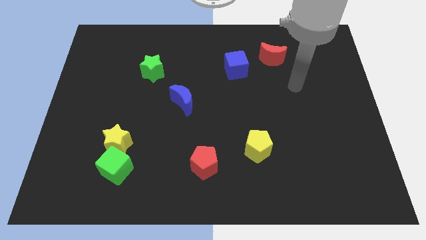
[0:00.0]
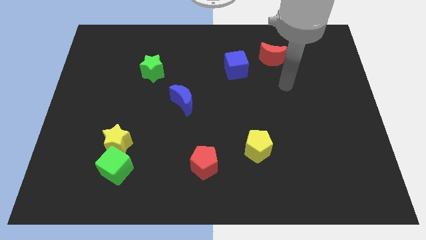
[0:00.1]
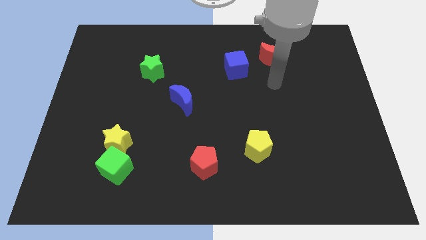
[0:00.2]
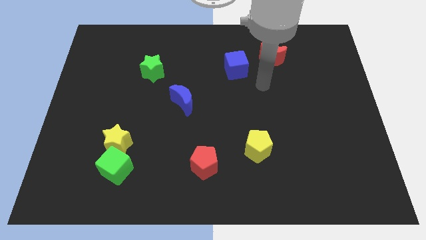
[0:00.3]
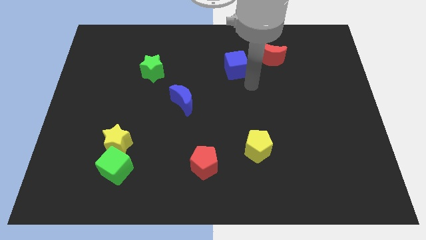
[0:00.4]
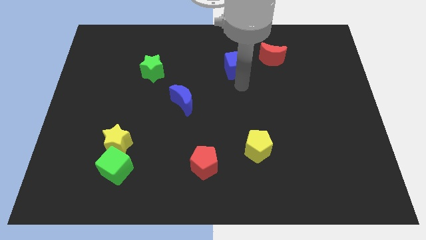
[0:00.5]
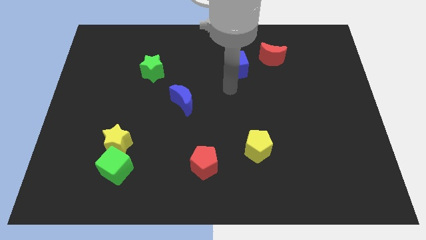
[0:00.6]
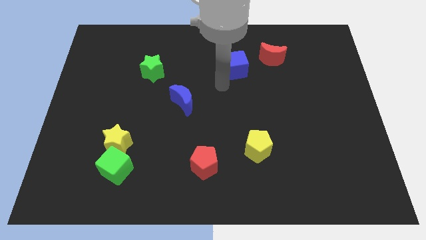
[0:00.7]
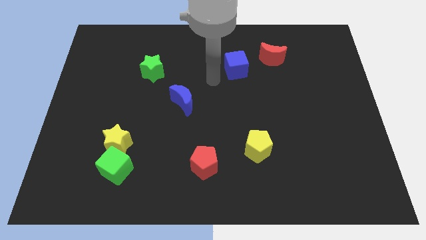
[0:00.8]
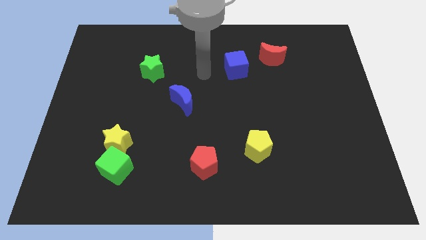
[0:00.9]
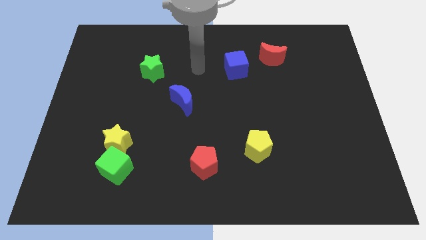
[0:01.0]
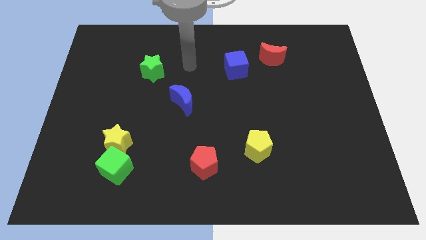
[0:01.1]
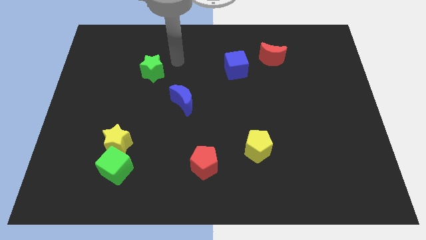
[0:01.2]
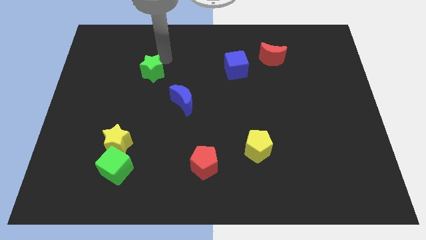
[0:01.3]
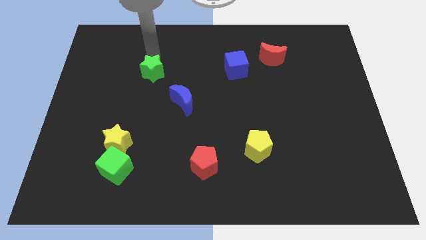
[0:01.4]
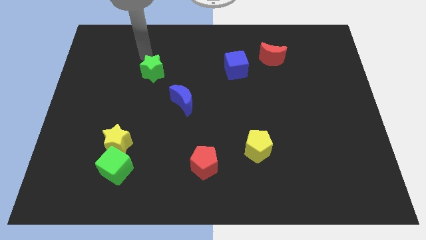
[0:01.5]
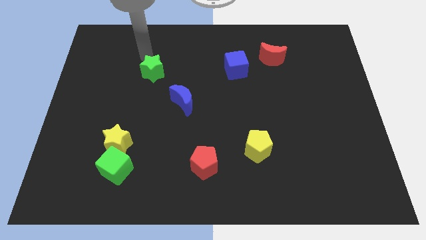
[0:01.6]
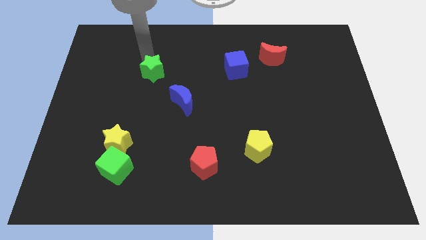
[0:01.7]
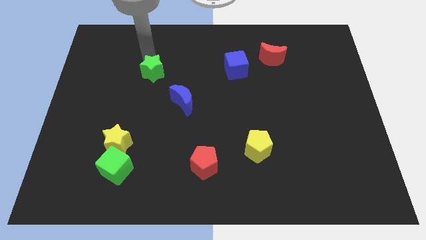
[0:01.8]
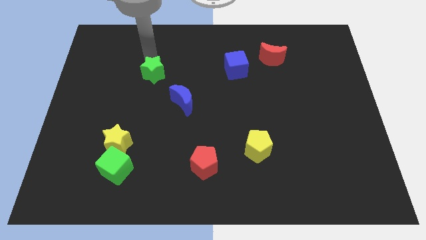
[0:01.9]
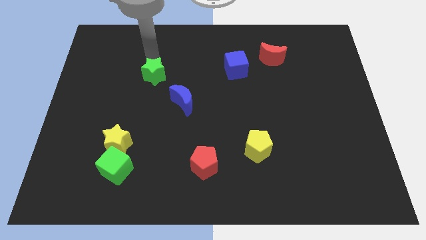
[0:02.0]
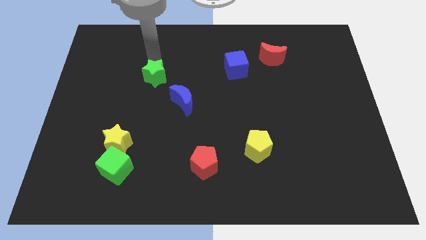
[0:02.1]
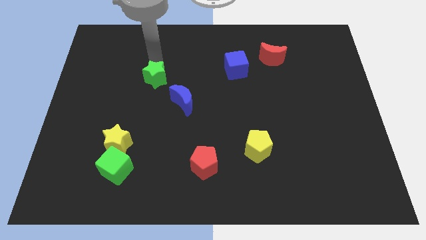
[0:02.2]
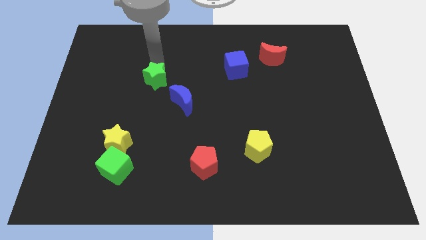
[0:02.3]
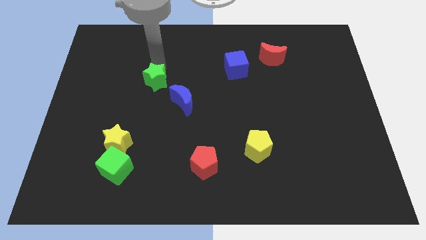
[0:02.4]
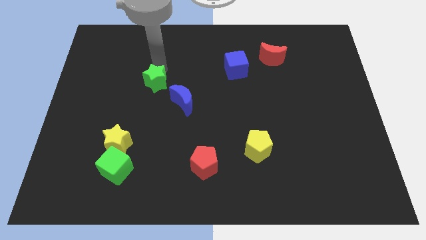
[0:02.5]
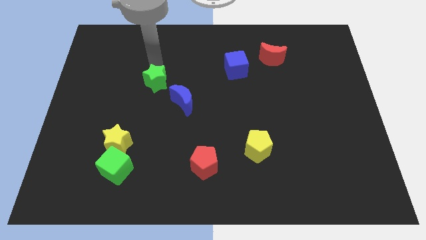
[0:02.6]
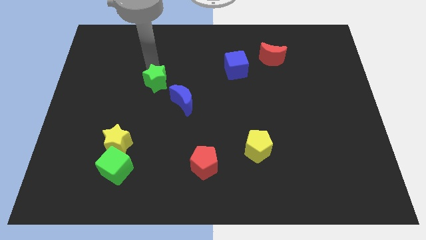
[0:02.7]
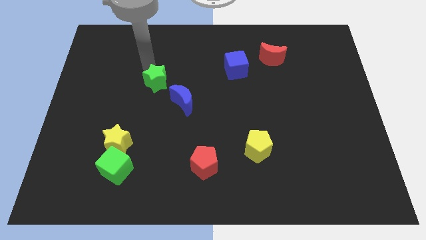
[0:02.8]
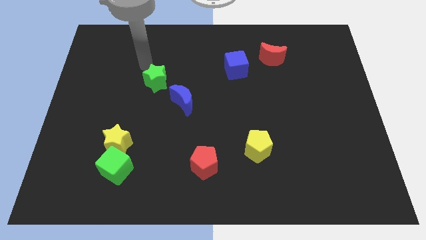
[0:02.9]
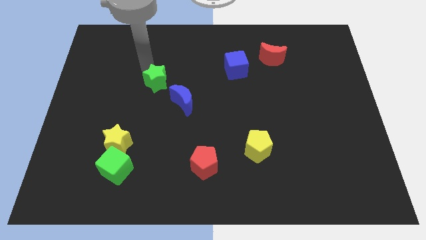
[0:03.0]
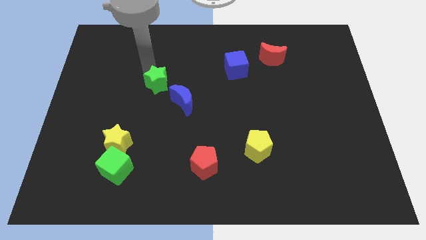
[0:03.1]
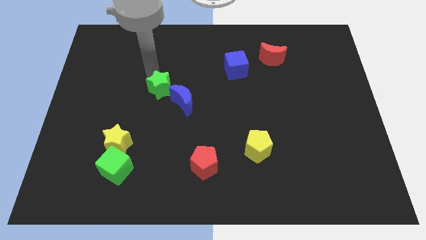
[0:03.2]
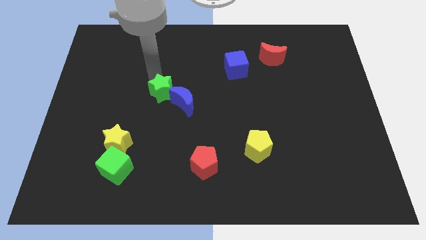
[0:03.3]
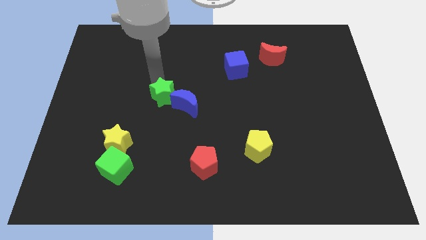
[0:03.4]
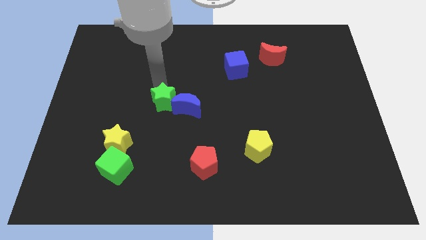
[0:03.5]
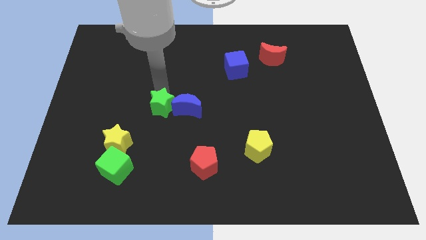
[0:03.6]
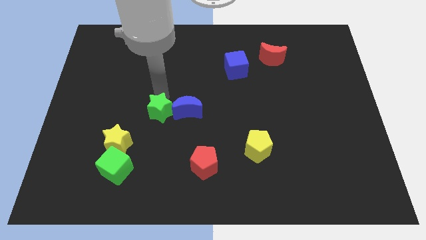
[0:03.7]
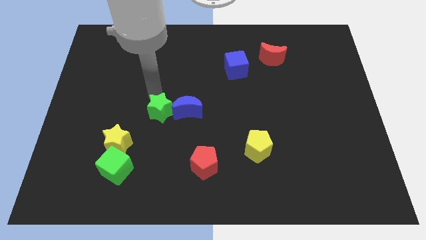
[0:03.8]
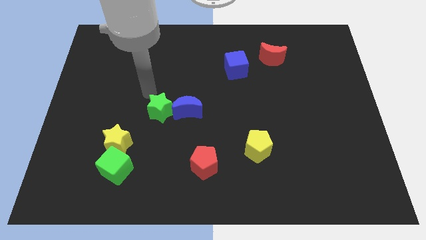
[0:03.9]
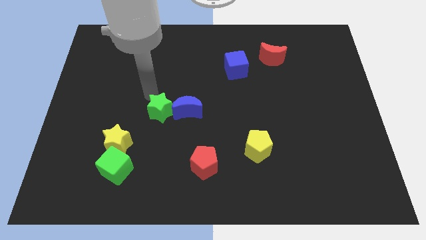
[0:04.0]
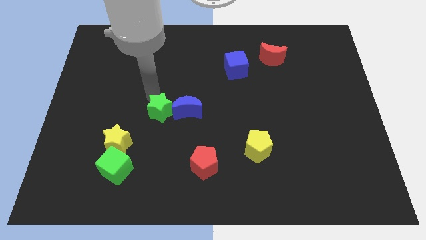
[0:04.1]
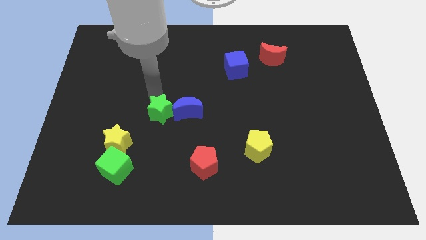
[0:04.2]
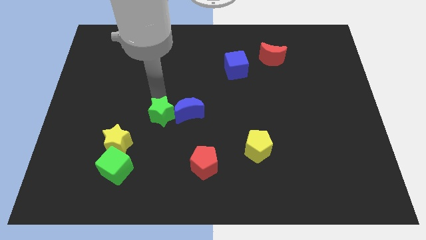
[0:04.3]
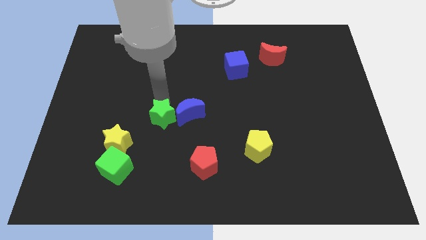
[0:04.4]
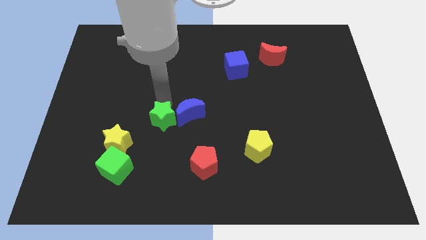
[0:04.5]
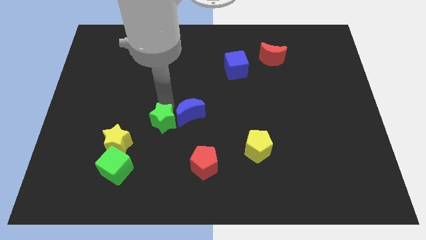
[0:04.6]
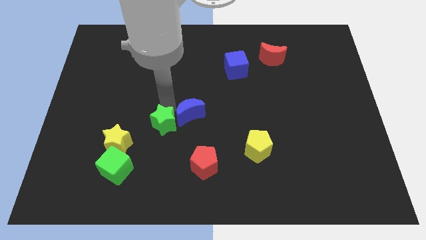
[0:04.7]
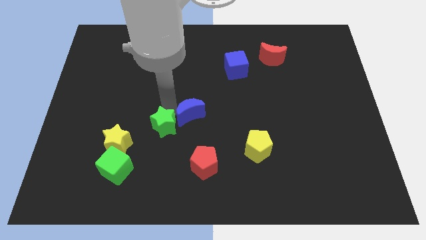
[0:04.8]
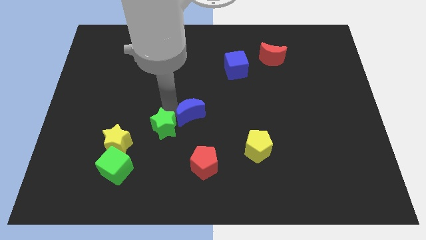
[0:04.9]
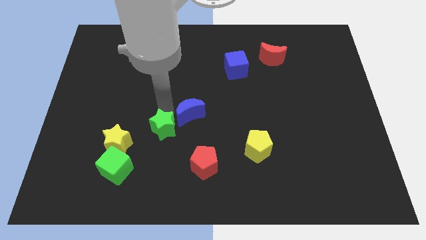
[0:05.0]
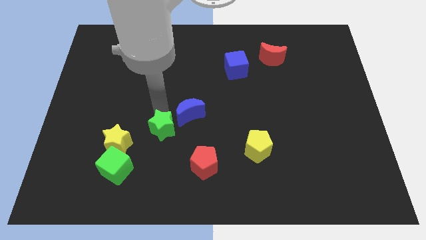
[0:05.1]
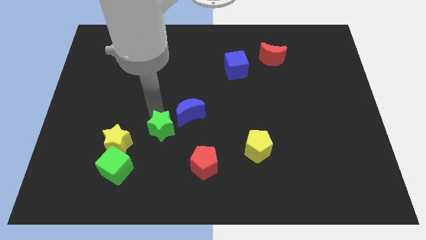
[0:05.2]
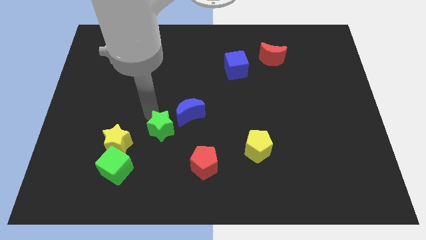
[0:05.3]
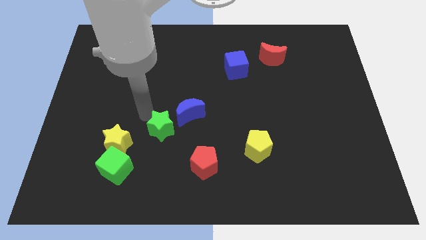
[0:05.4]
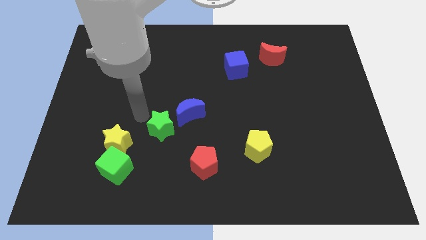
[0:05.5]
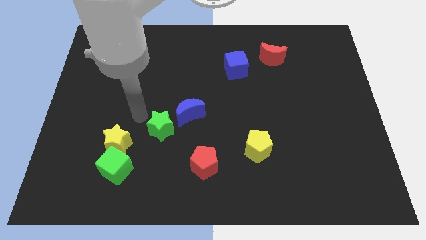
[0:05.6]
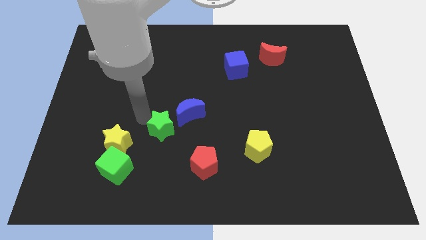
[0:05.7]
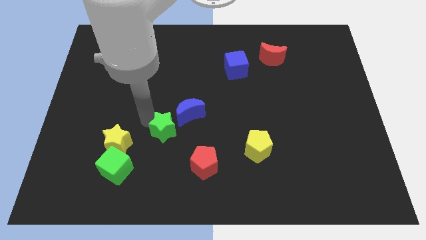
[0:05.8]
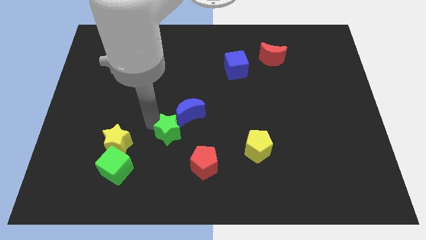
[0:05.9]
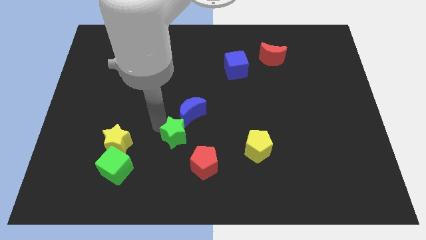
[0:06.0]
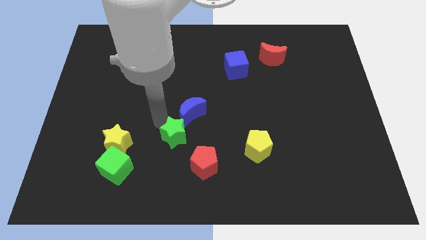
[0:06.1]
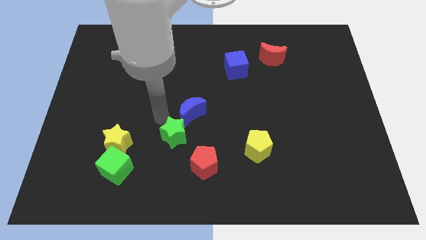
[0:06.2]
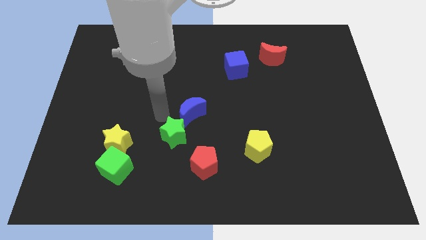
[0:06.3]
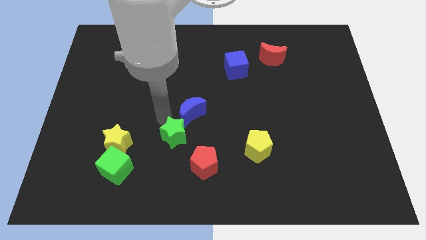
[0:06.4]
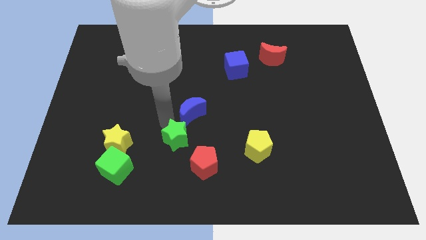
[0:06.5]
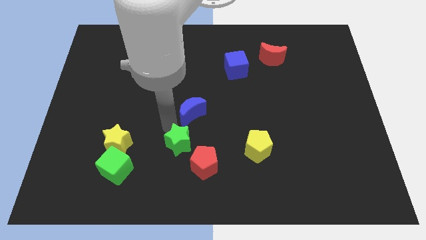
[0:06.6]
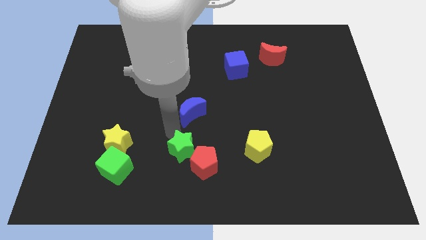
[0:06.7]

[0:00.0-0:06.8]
move the green star to the red pentagon
